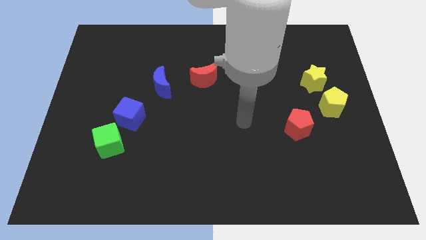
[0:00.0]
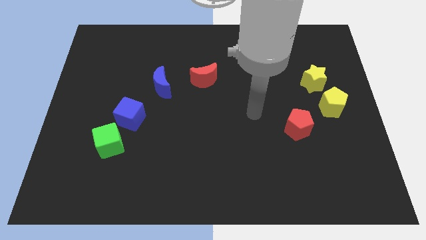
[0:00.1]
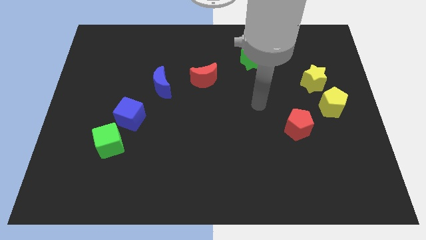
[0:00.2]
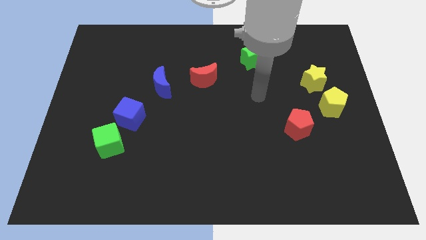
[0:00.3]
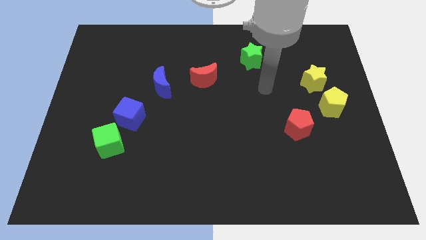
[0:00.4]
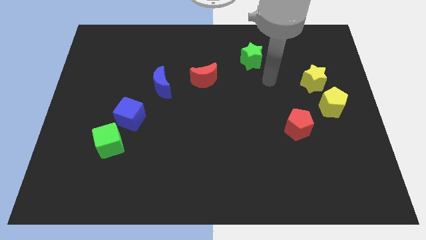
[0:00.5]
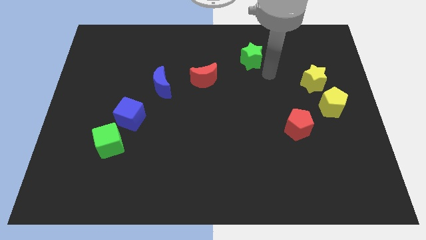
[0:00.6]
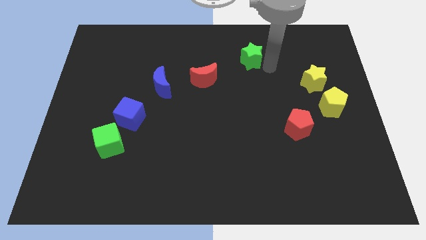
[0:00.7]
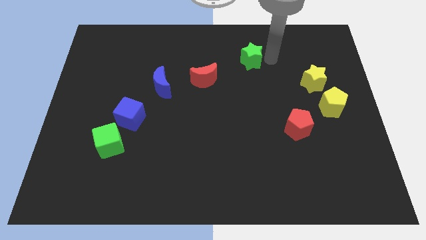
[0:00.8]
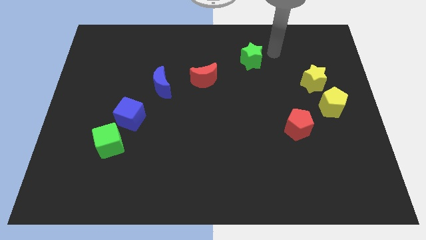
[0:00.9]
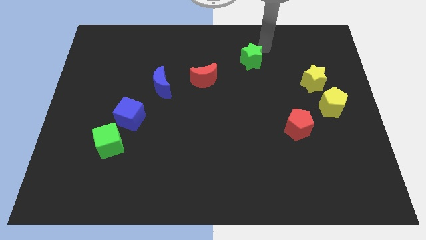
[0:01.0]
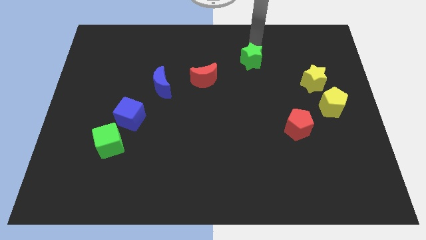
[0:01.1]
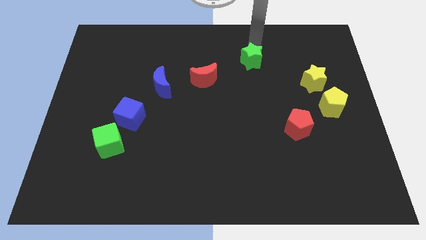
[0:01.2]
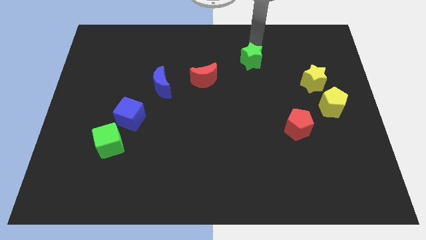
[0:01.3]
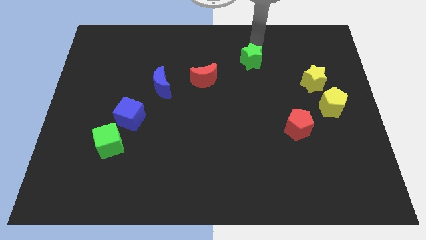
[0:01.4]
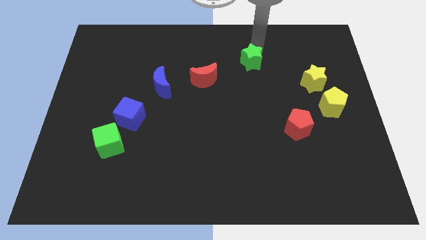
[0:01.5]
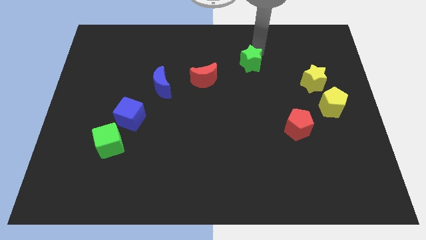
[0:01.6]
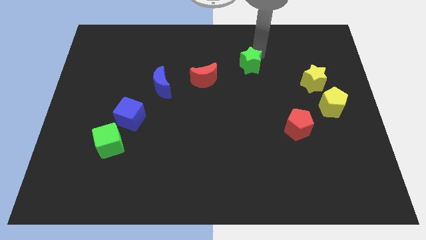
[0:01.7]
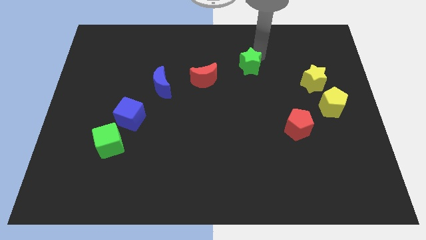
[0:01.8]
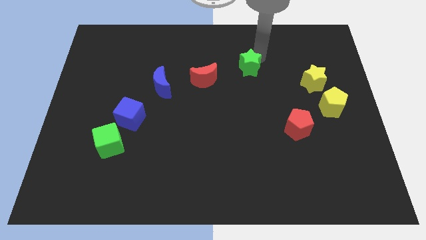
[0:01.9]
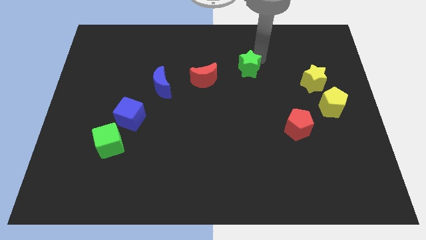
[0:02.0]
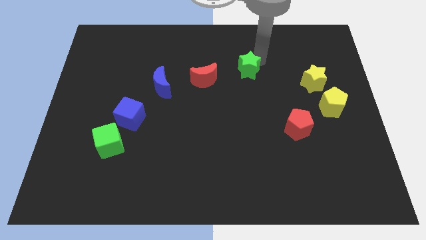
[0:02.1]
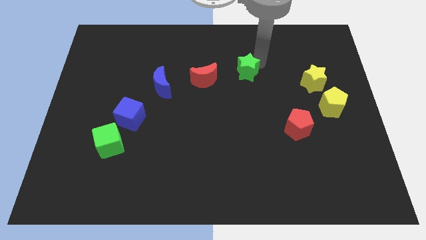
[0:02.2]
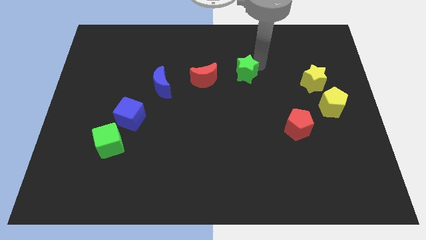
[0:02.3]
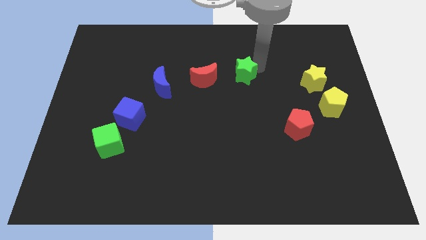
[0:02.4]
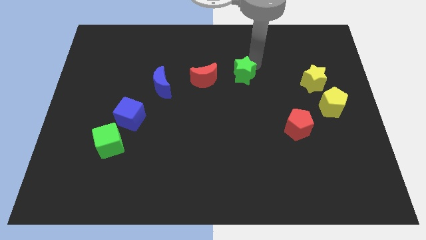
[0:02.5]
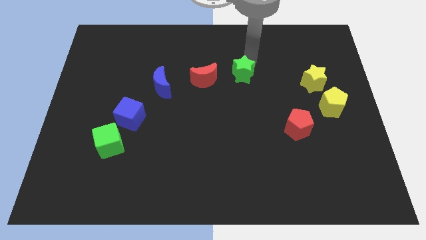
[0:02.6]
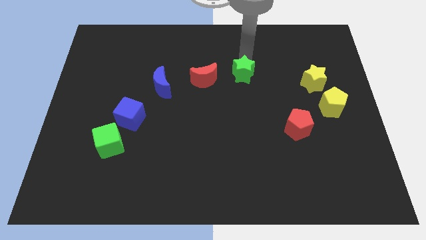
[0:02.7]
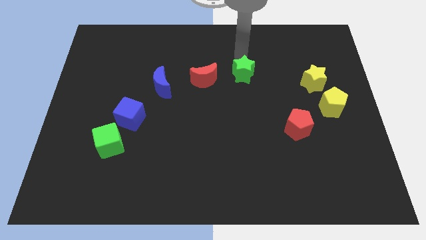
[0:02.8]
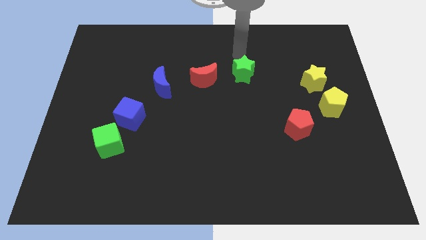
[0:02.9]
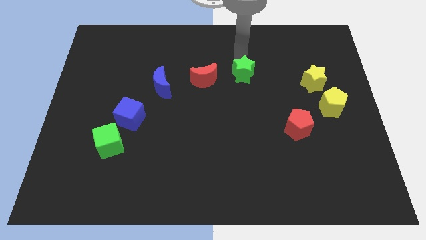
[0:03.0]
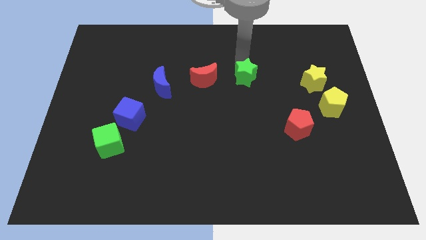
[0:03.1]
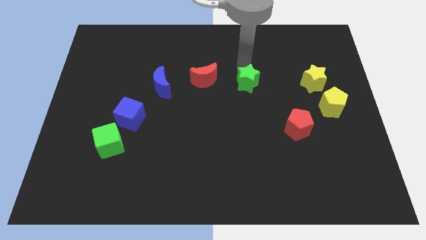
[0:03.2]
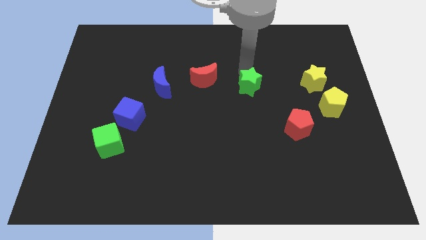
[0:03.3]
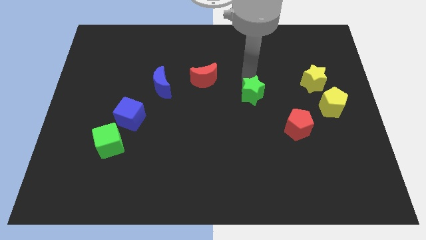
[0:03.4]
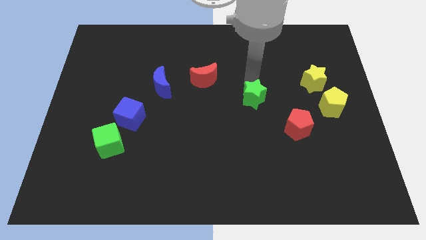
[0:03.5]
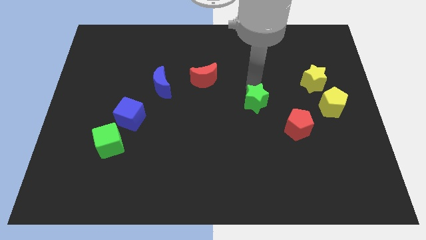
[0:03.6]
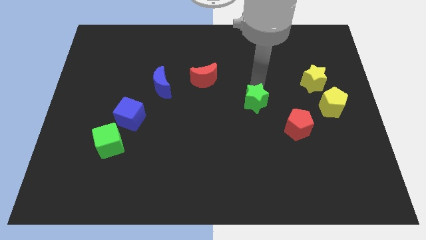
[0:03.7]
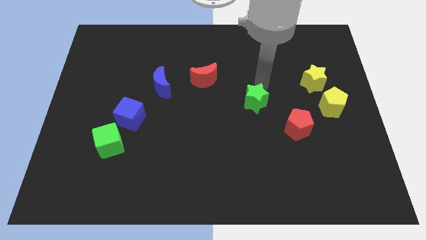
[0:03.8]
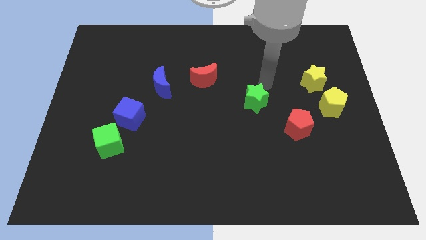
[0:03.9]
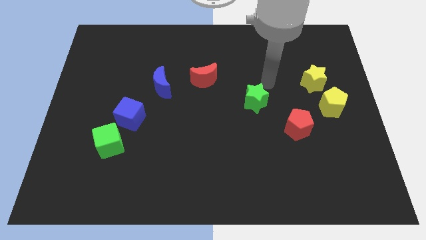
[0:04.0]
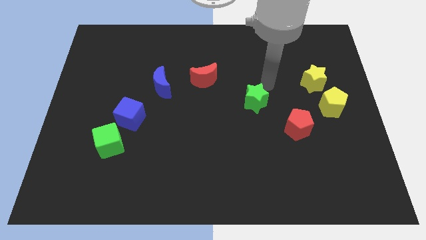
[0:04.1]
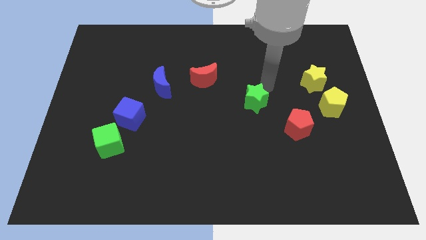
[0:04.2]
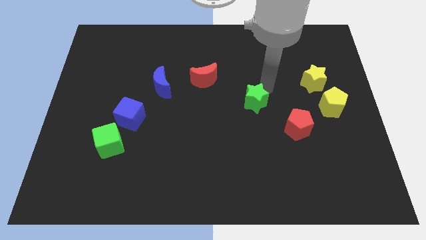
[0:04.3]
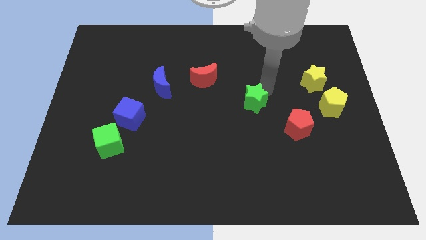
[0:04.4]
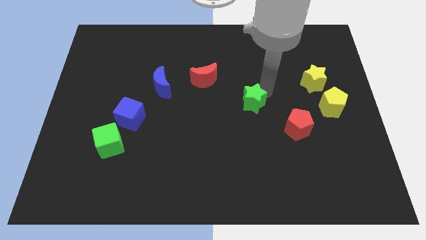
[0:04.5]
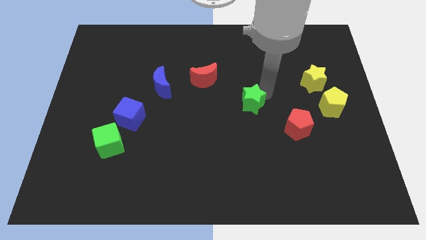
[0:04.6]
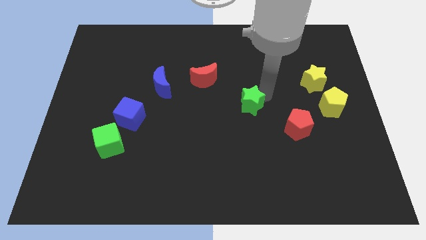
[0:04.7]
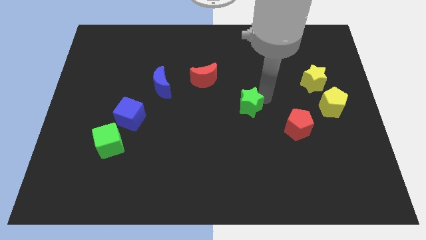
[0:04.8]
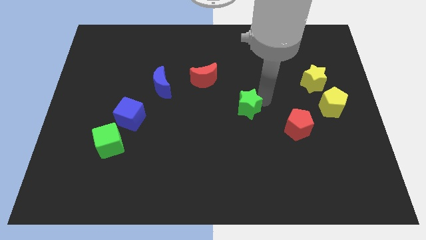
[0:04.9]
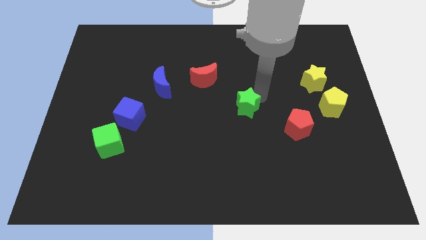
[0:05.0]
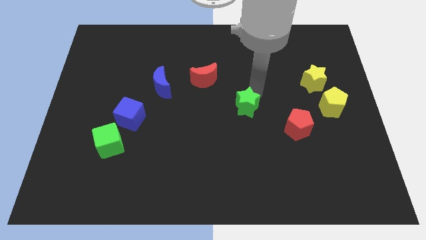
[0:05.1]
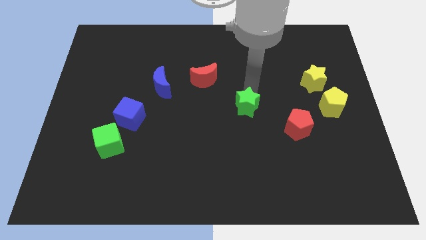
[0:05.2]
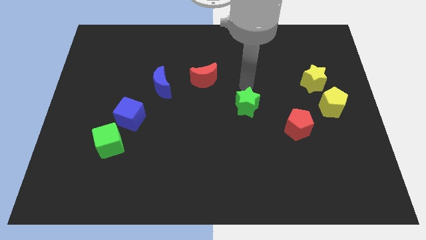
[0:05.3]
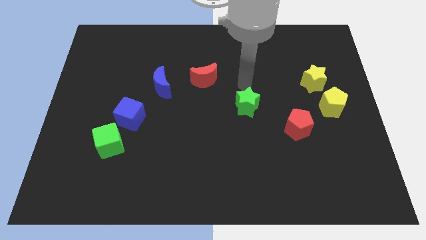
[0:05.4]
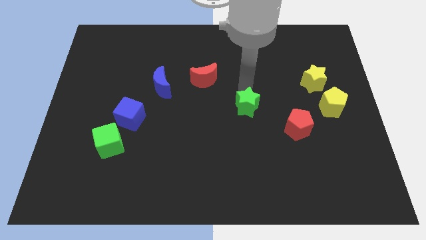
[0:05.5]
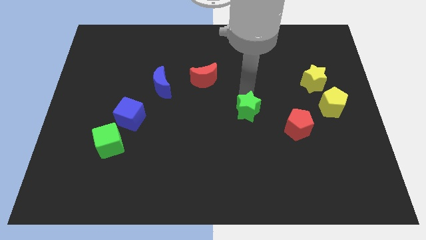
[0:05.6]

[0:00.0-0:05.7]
push the green star left of the red pentagon

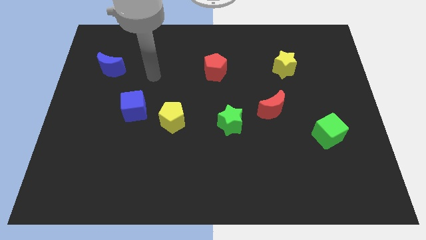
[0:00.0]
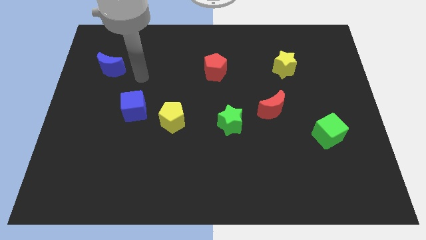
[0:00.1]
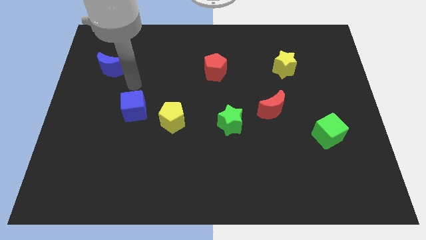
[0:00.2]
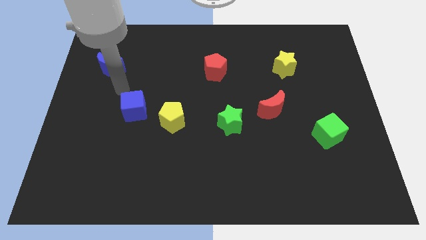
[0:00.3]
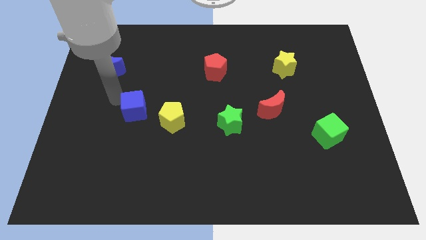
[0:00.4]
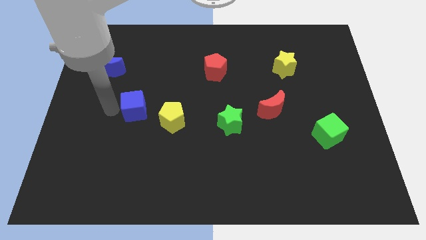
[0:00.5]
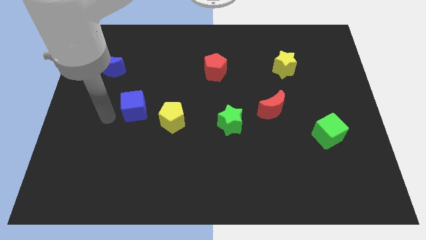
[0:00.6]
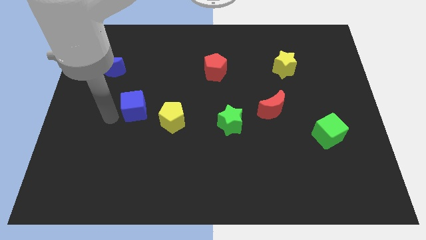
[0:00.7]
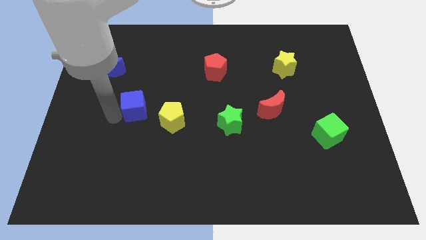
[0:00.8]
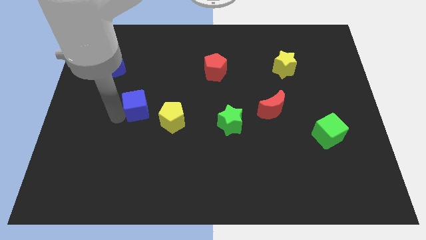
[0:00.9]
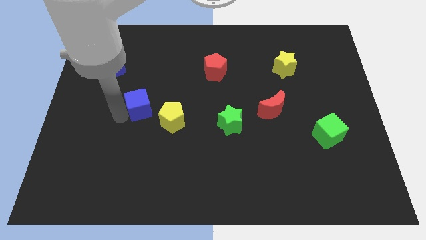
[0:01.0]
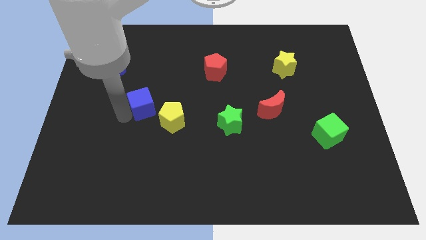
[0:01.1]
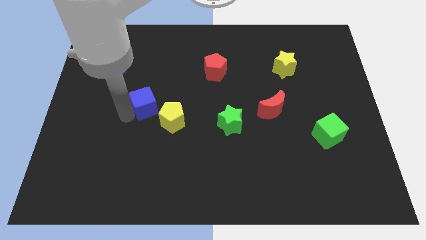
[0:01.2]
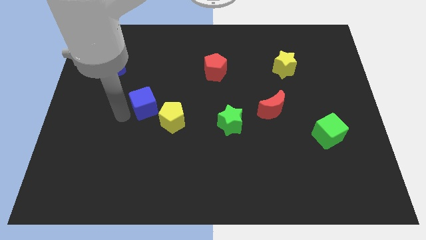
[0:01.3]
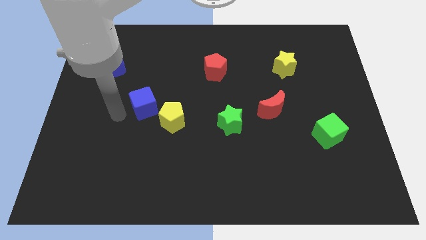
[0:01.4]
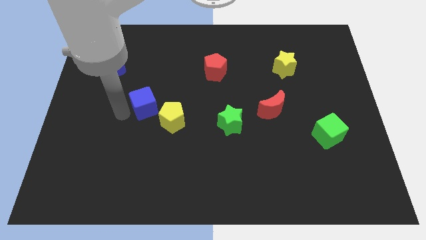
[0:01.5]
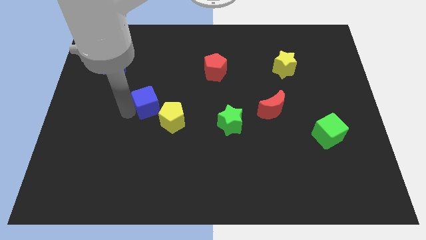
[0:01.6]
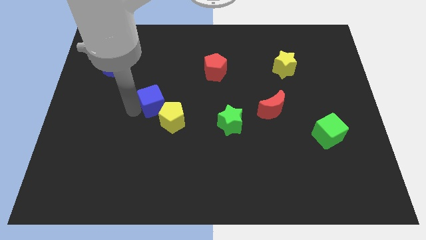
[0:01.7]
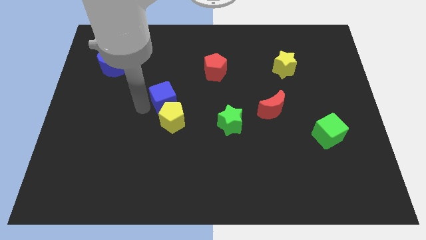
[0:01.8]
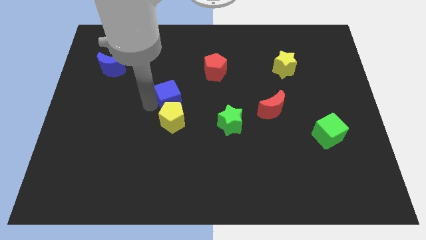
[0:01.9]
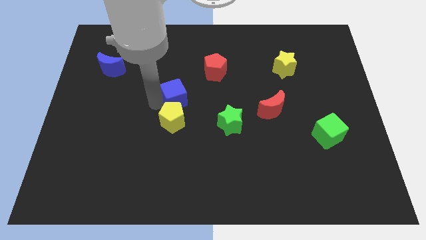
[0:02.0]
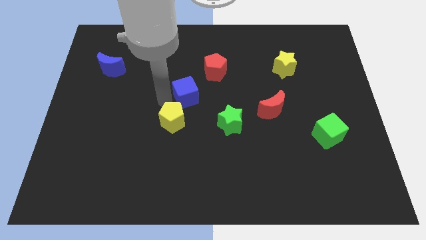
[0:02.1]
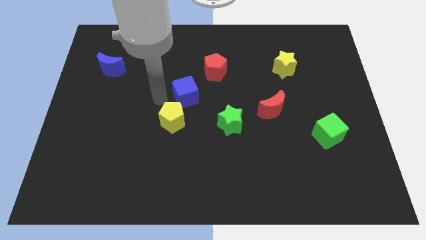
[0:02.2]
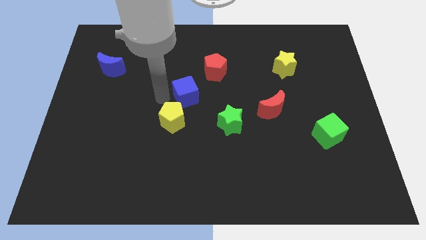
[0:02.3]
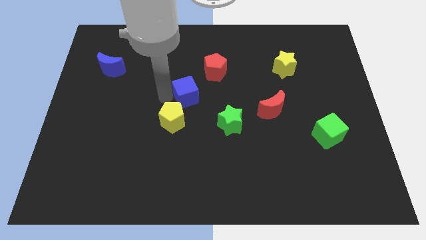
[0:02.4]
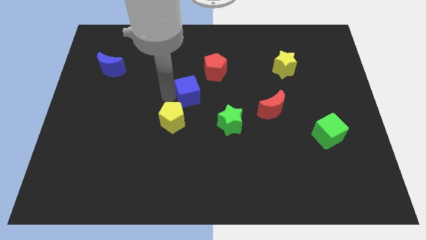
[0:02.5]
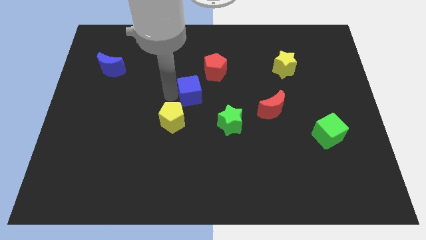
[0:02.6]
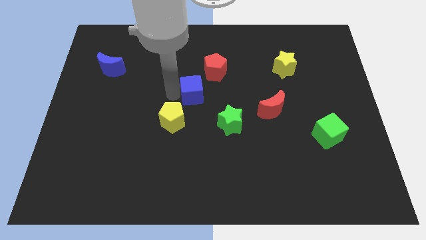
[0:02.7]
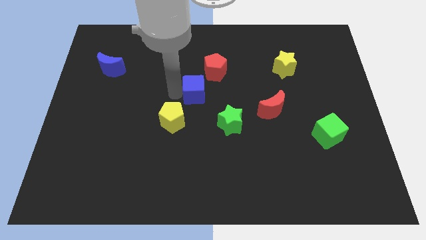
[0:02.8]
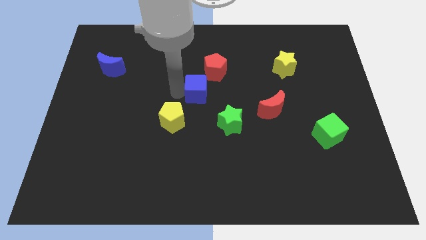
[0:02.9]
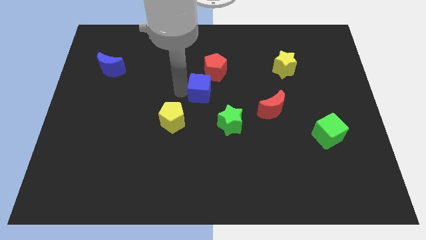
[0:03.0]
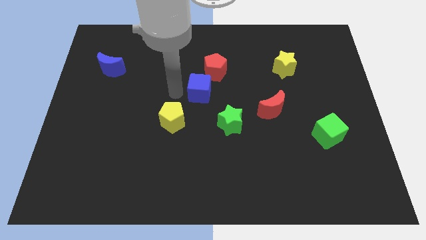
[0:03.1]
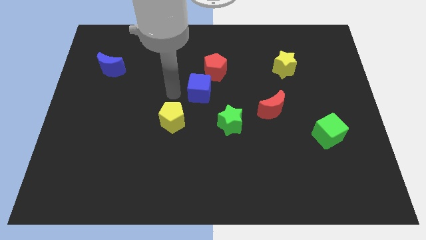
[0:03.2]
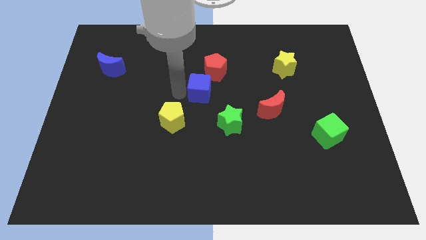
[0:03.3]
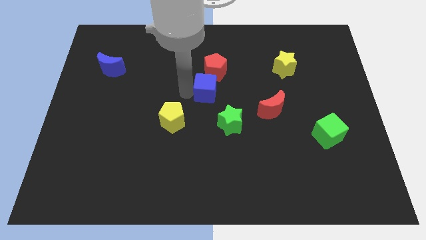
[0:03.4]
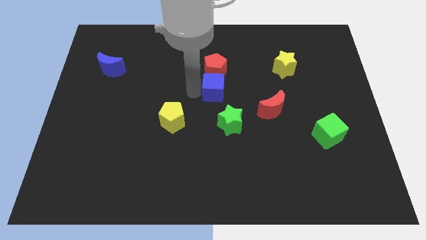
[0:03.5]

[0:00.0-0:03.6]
move the blue cube to the top side of the green star
